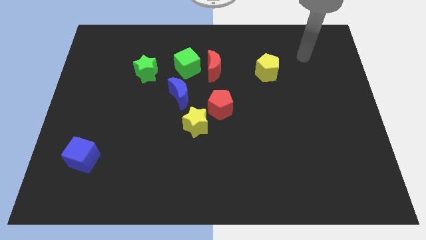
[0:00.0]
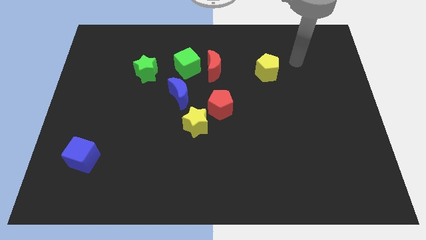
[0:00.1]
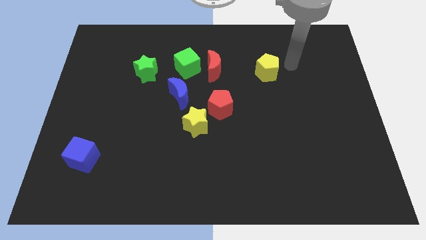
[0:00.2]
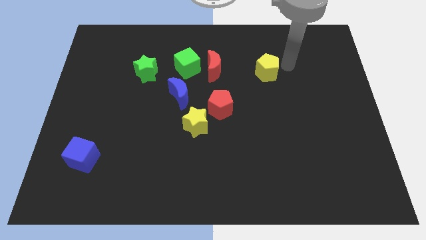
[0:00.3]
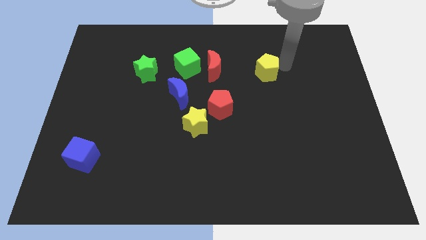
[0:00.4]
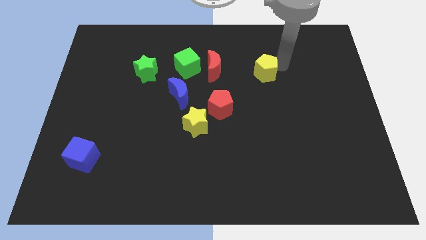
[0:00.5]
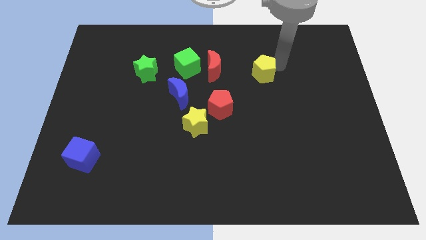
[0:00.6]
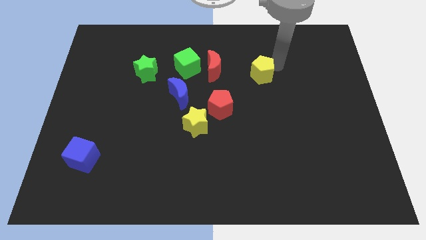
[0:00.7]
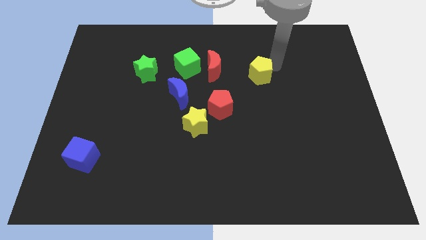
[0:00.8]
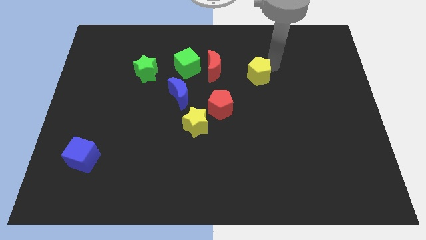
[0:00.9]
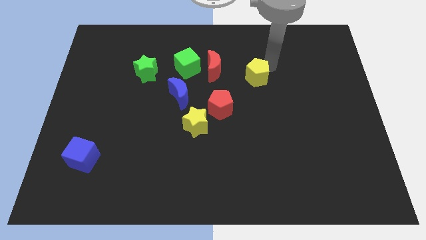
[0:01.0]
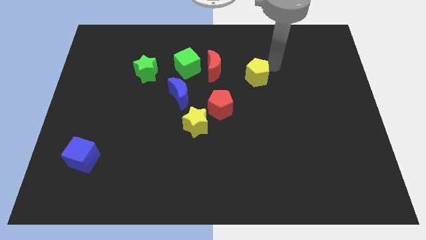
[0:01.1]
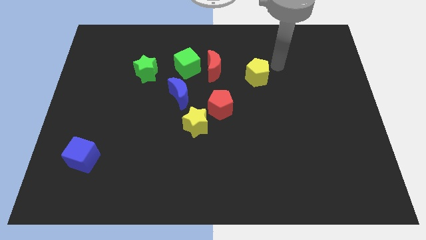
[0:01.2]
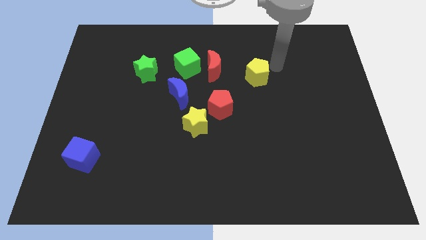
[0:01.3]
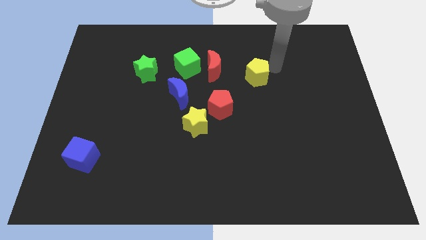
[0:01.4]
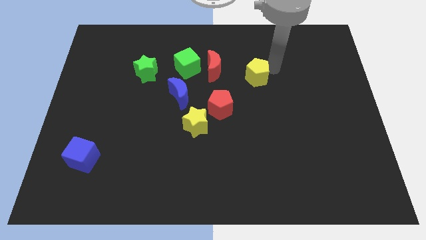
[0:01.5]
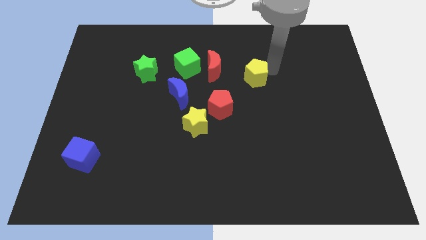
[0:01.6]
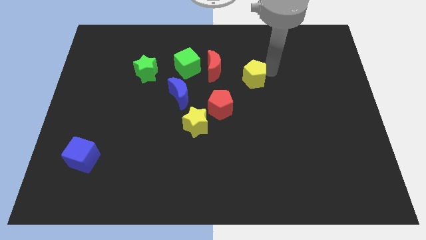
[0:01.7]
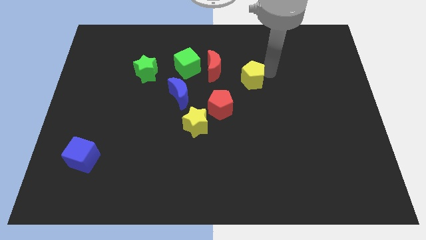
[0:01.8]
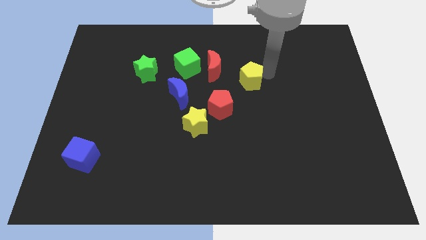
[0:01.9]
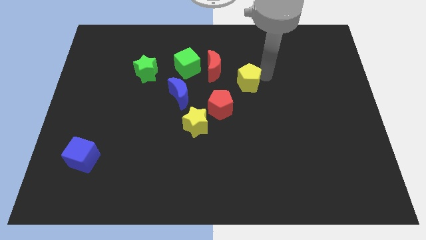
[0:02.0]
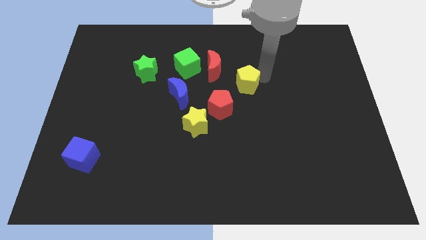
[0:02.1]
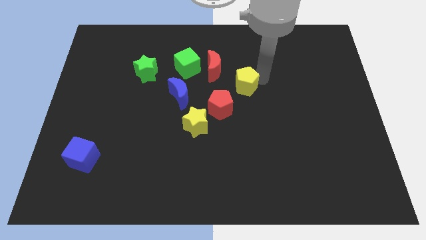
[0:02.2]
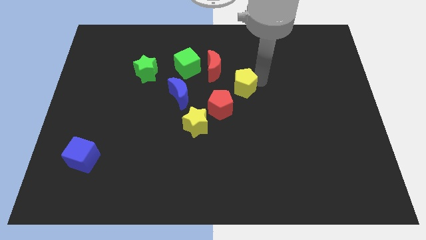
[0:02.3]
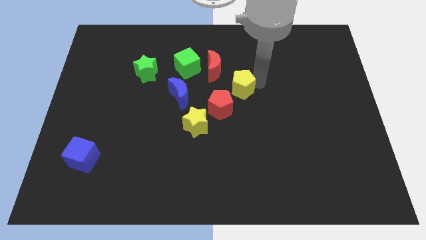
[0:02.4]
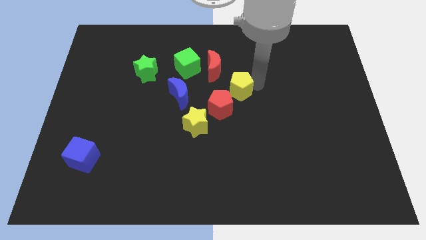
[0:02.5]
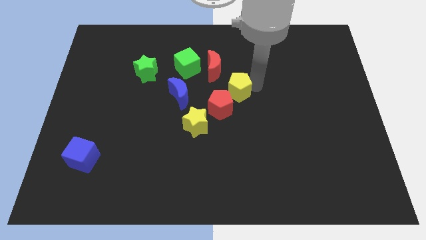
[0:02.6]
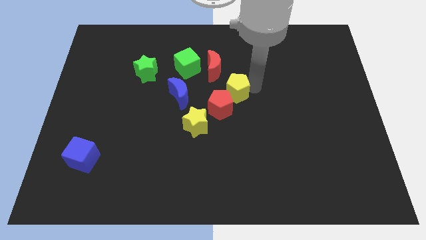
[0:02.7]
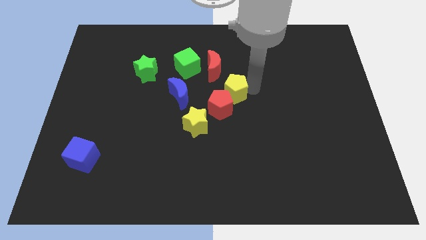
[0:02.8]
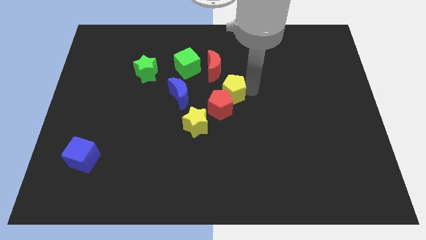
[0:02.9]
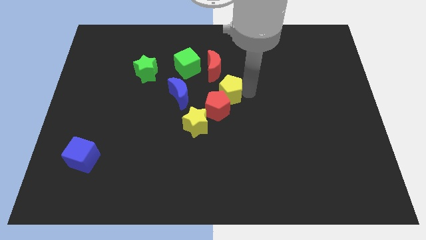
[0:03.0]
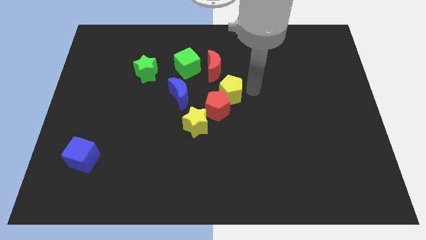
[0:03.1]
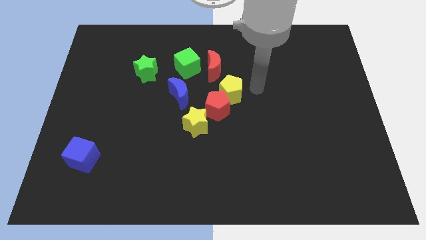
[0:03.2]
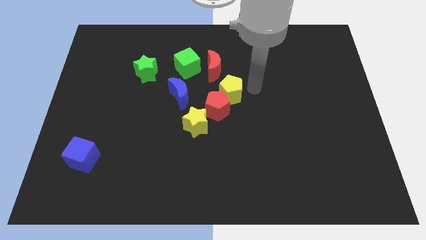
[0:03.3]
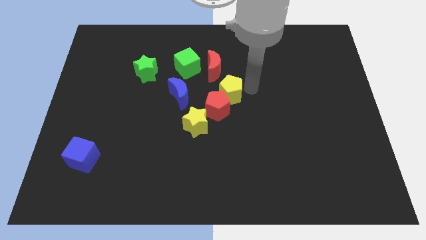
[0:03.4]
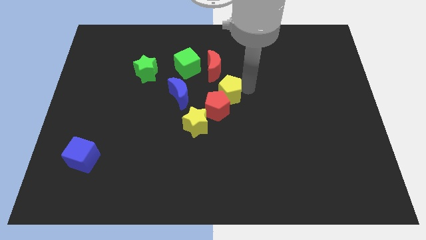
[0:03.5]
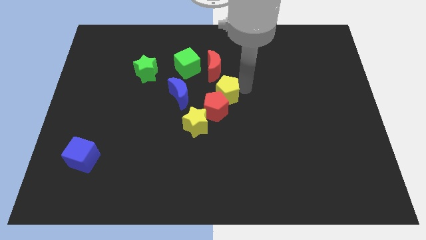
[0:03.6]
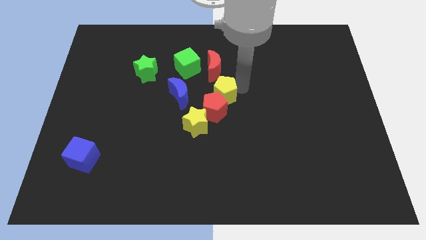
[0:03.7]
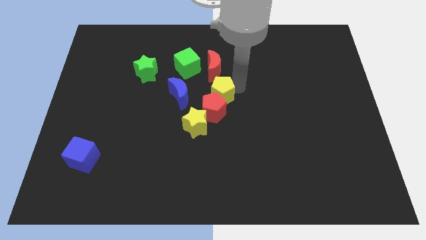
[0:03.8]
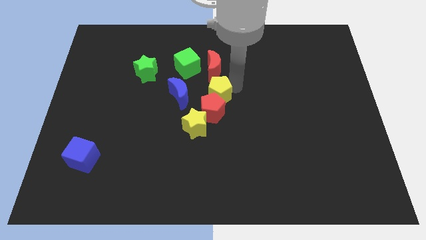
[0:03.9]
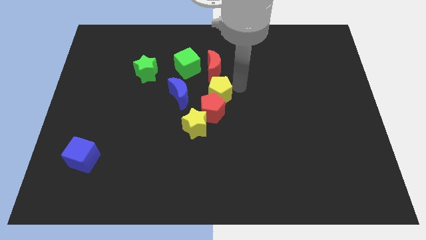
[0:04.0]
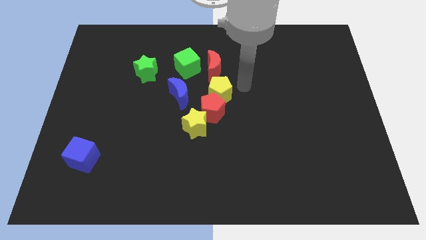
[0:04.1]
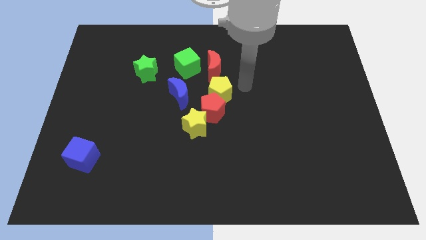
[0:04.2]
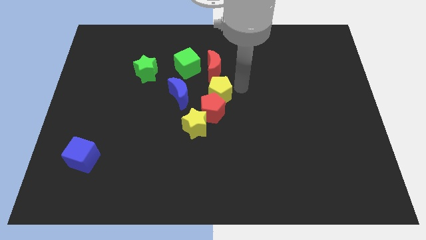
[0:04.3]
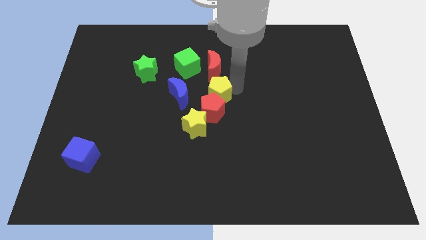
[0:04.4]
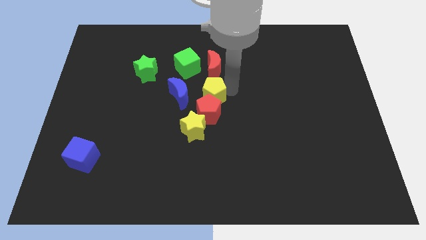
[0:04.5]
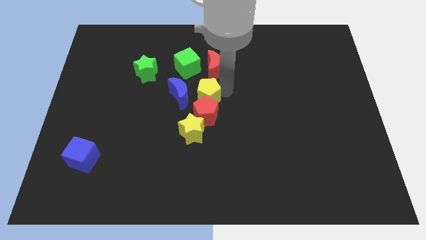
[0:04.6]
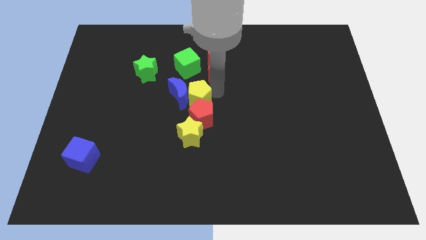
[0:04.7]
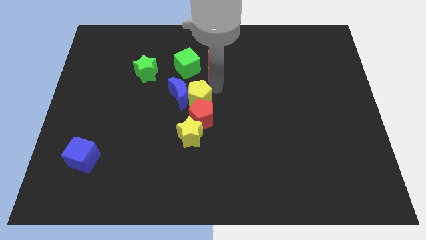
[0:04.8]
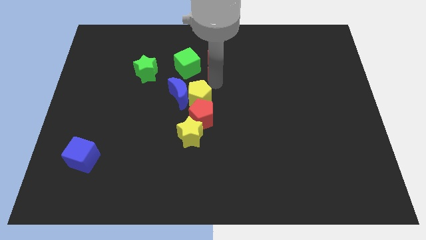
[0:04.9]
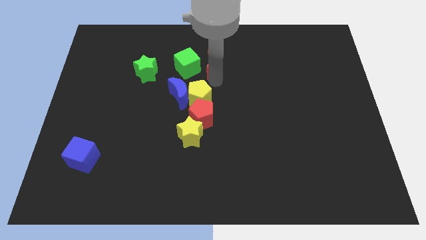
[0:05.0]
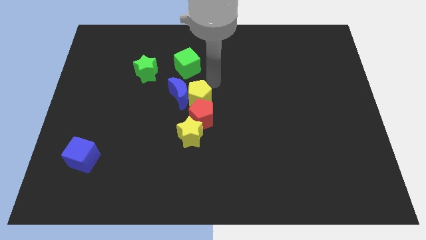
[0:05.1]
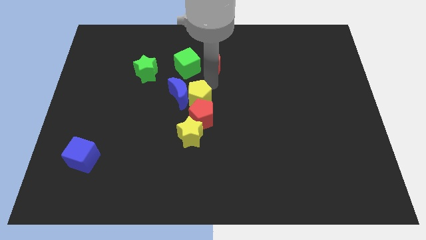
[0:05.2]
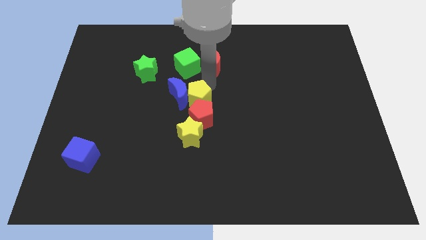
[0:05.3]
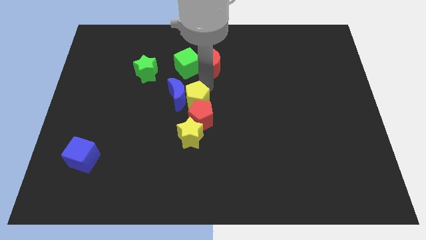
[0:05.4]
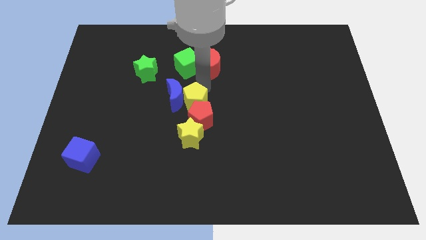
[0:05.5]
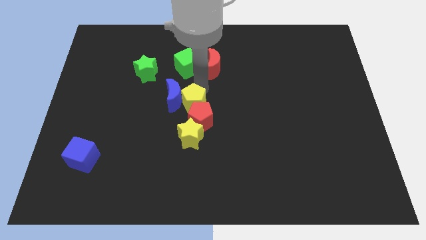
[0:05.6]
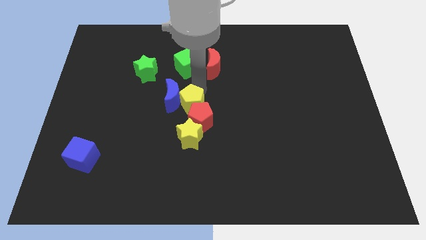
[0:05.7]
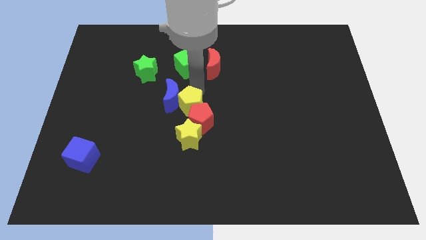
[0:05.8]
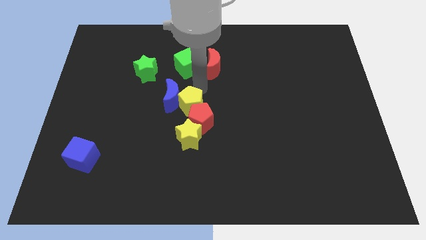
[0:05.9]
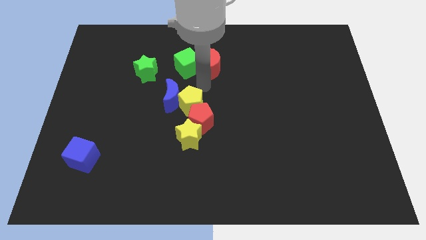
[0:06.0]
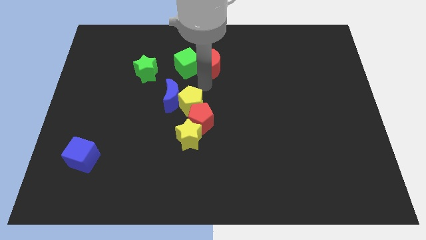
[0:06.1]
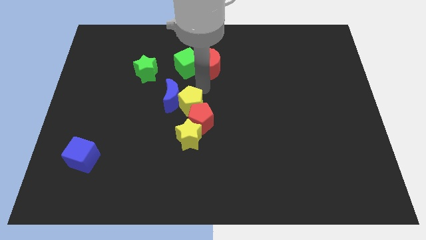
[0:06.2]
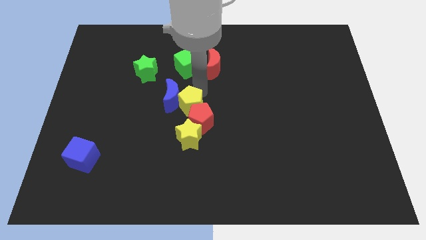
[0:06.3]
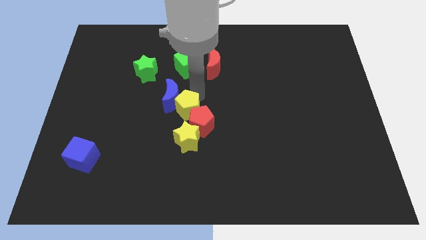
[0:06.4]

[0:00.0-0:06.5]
push the yellow pentagon to the bottom side of the blue moon

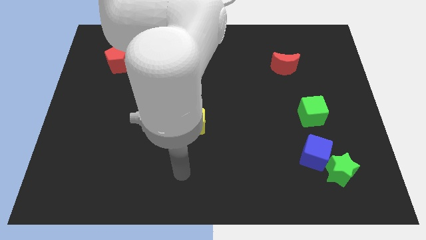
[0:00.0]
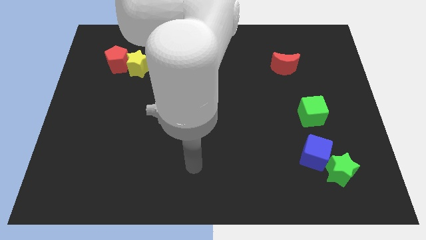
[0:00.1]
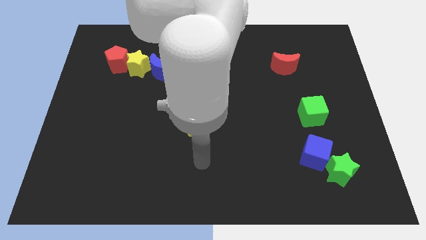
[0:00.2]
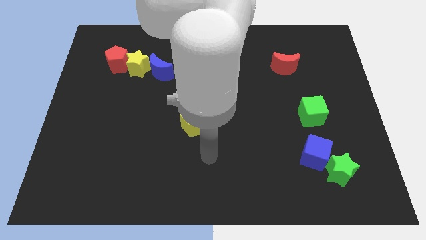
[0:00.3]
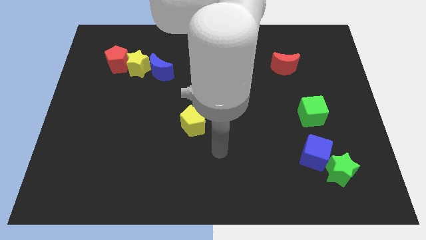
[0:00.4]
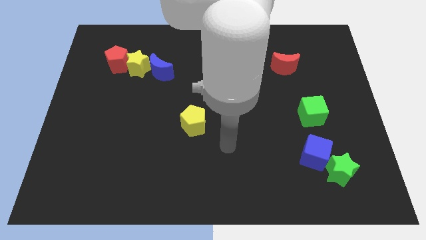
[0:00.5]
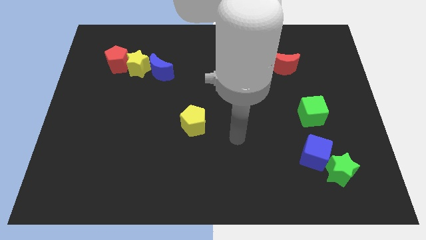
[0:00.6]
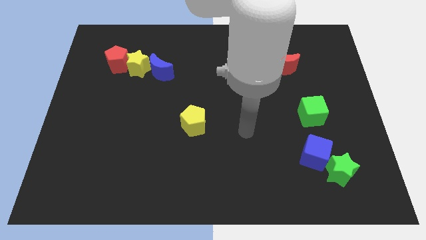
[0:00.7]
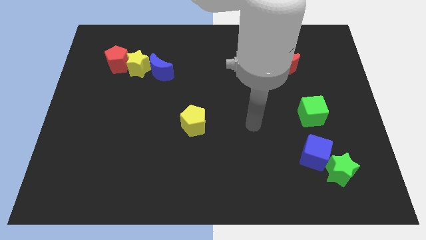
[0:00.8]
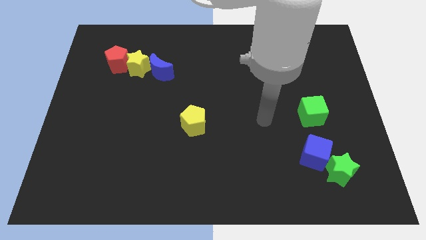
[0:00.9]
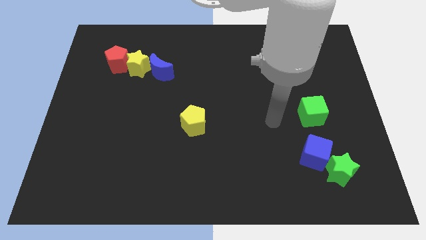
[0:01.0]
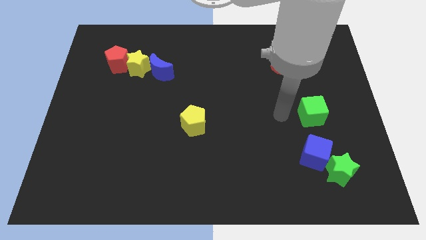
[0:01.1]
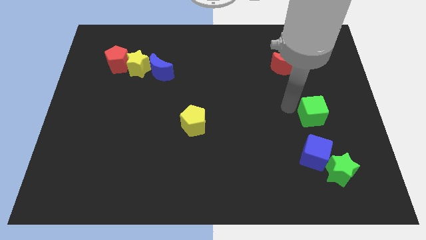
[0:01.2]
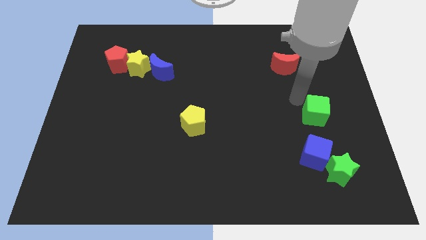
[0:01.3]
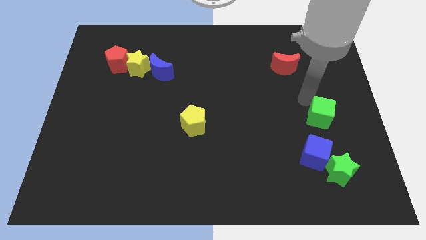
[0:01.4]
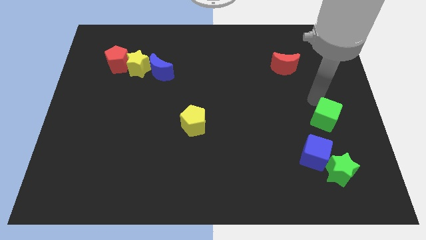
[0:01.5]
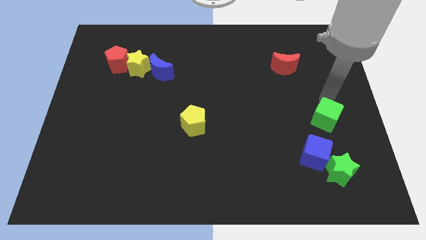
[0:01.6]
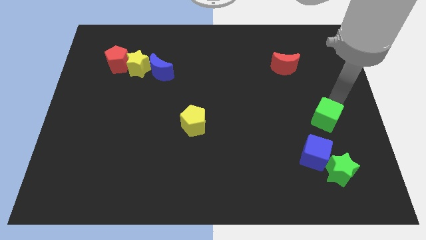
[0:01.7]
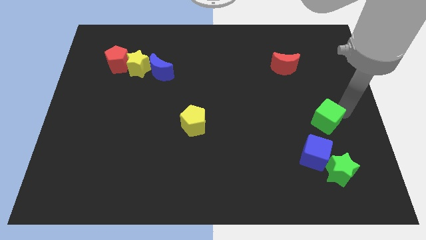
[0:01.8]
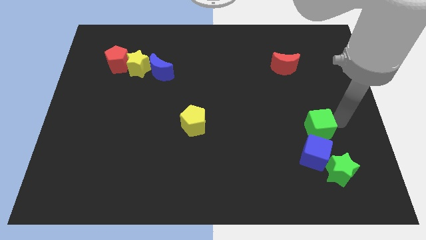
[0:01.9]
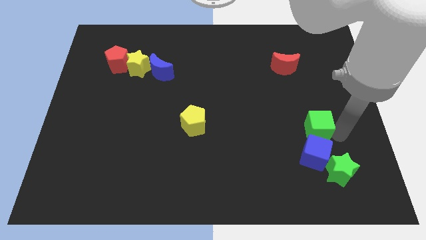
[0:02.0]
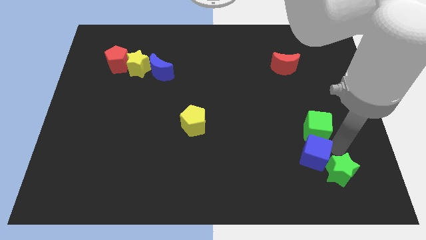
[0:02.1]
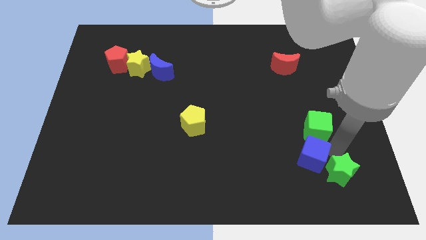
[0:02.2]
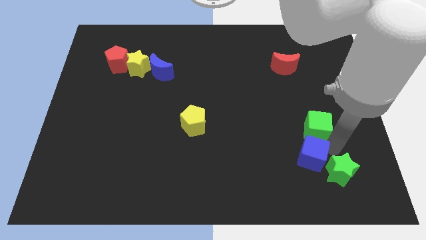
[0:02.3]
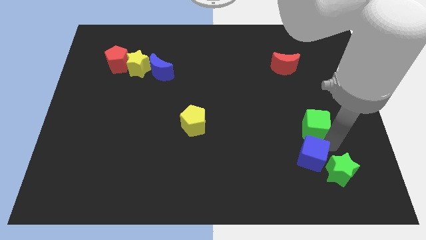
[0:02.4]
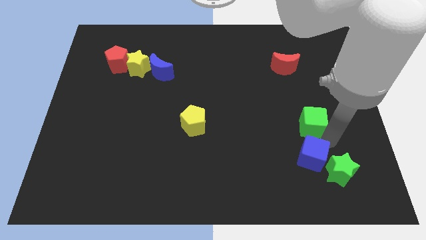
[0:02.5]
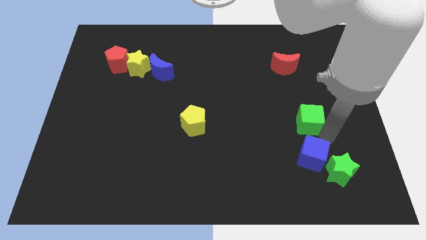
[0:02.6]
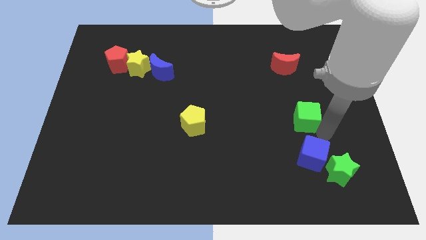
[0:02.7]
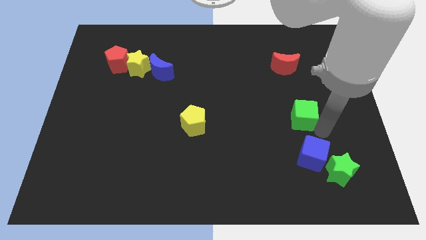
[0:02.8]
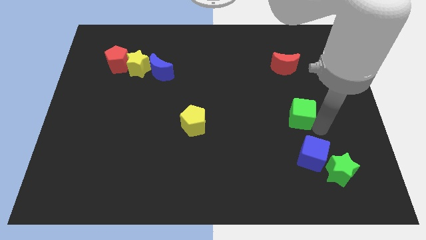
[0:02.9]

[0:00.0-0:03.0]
push the green cube to the bottom side of the red moon
